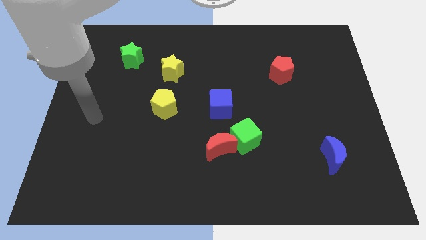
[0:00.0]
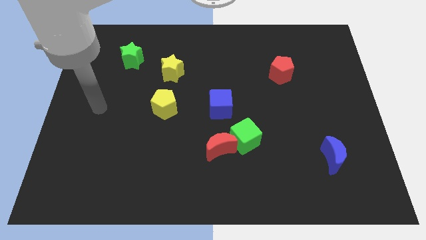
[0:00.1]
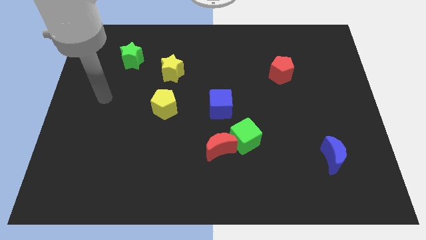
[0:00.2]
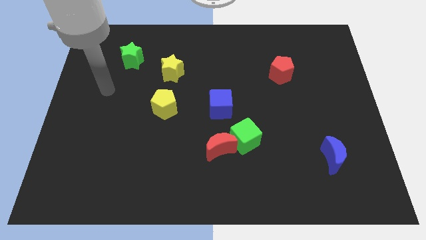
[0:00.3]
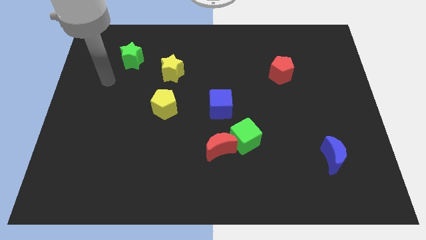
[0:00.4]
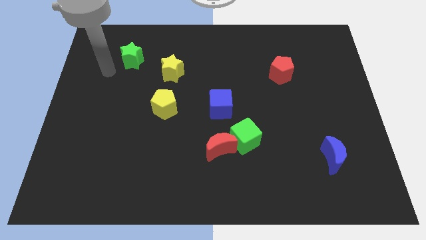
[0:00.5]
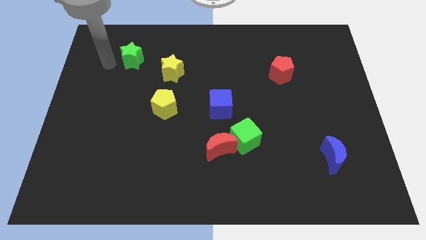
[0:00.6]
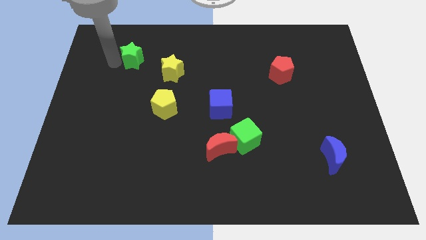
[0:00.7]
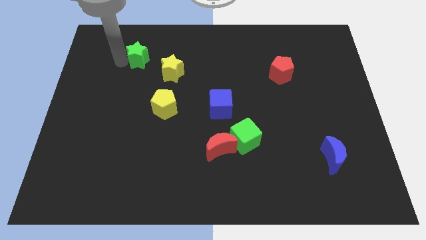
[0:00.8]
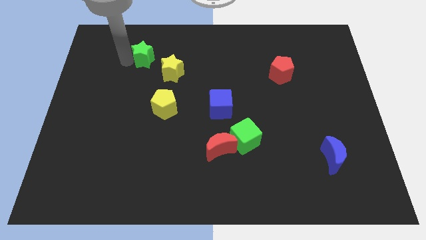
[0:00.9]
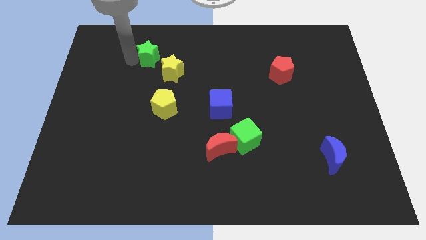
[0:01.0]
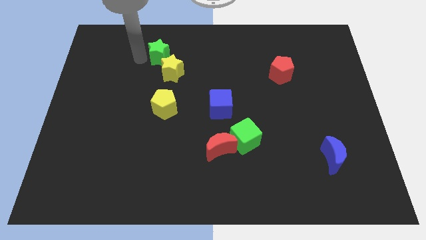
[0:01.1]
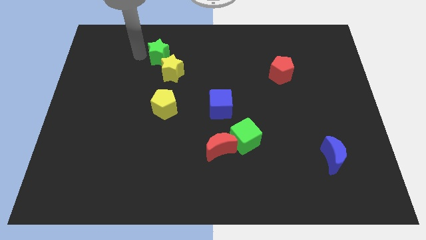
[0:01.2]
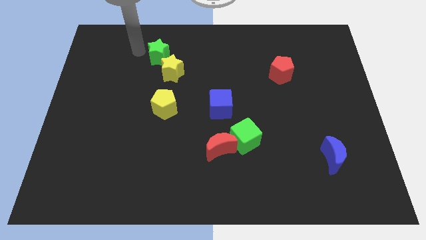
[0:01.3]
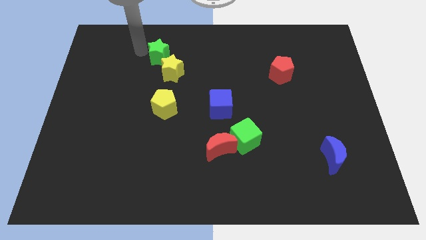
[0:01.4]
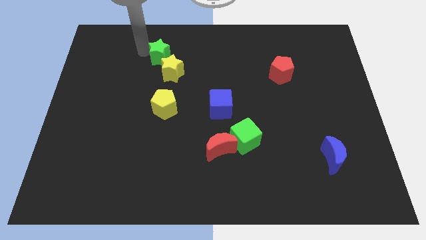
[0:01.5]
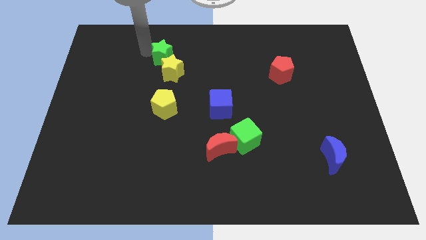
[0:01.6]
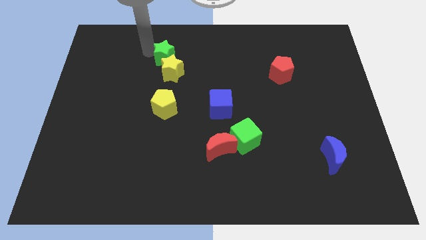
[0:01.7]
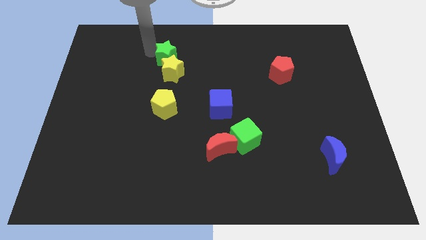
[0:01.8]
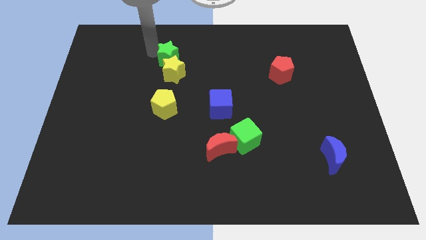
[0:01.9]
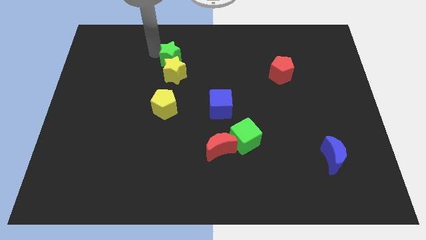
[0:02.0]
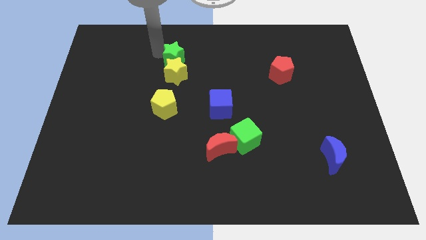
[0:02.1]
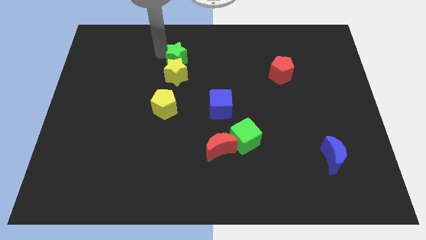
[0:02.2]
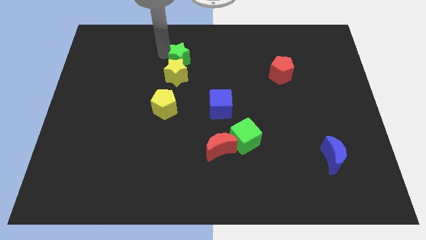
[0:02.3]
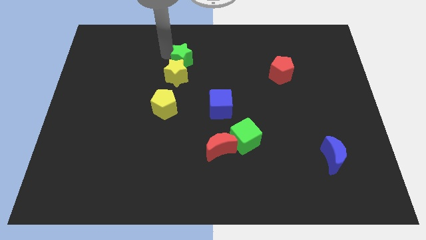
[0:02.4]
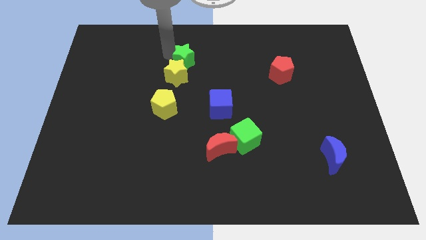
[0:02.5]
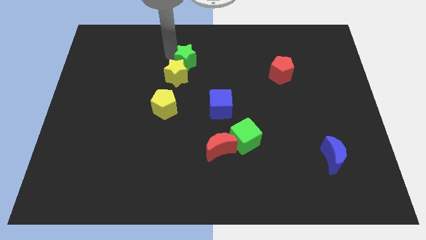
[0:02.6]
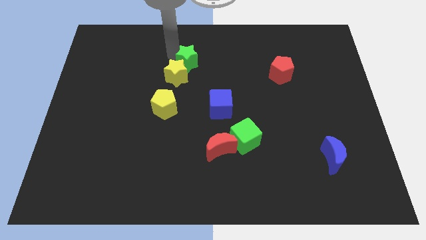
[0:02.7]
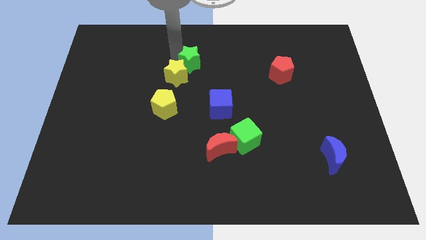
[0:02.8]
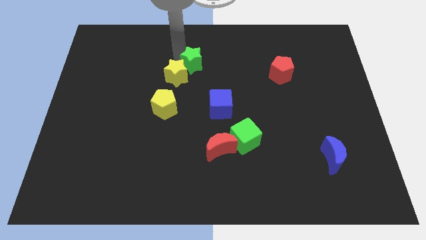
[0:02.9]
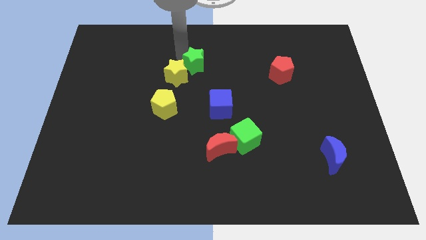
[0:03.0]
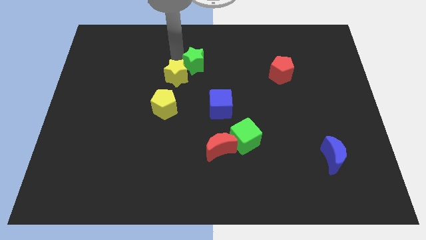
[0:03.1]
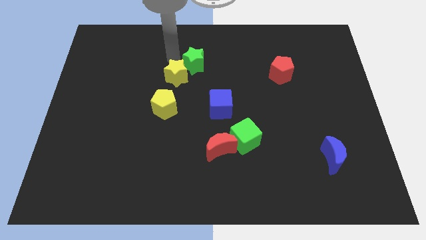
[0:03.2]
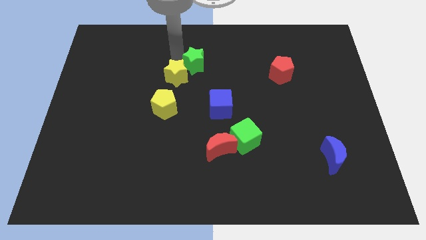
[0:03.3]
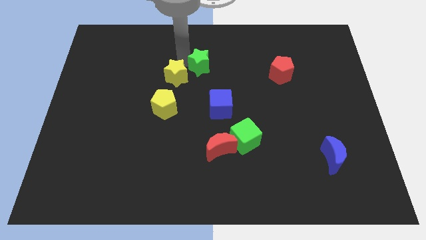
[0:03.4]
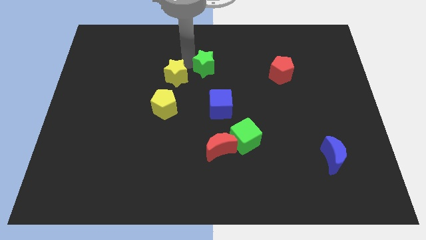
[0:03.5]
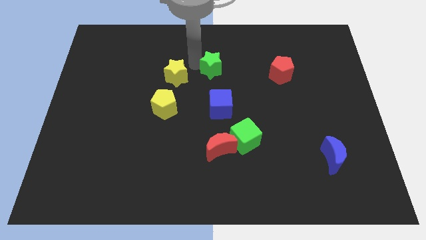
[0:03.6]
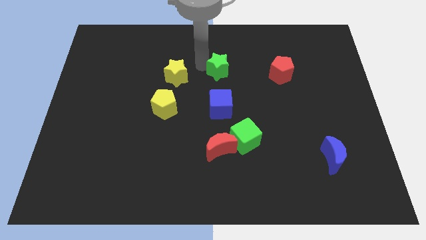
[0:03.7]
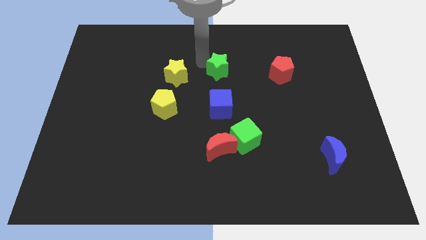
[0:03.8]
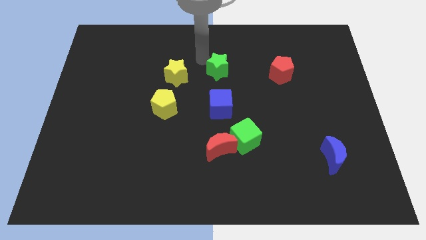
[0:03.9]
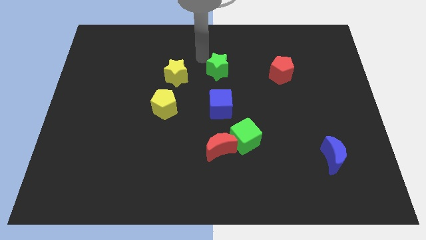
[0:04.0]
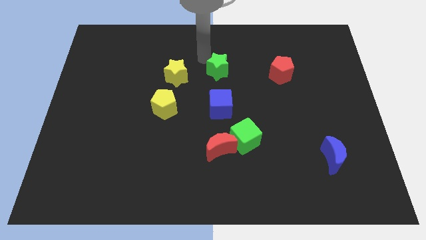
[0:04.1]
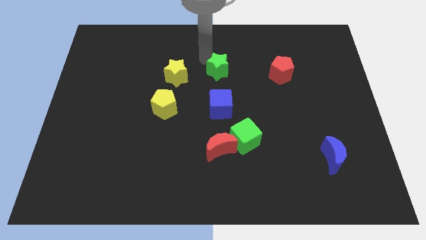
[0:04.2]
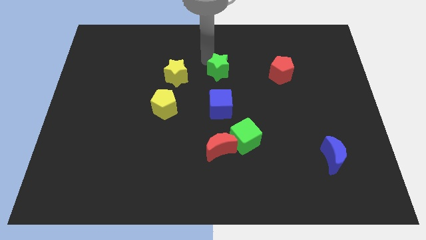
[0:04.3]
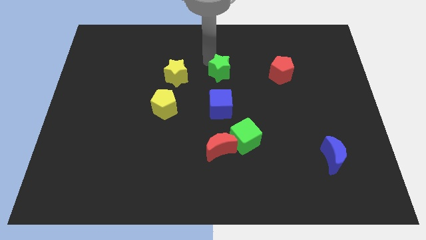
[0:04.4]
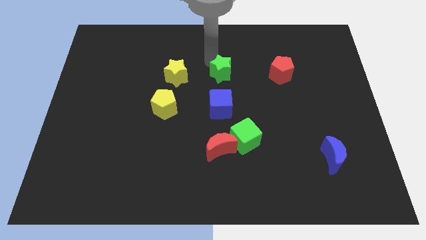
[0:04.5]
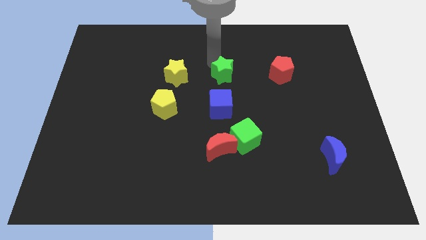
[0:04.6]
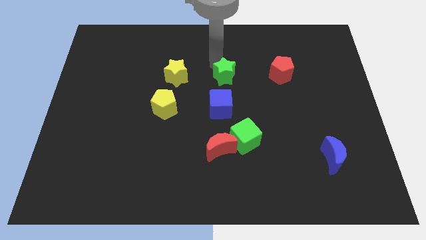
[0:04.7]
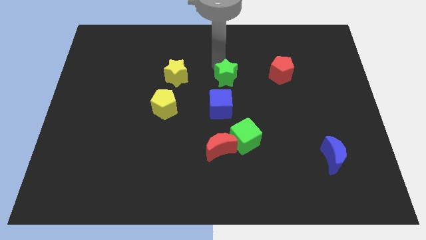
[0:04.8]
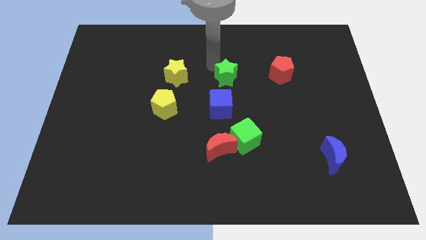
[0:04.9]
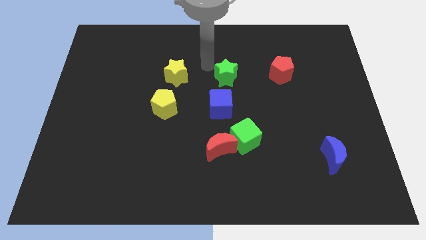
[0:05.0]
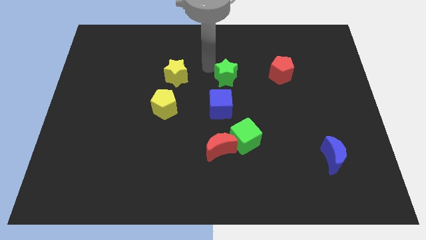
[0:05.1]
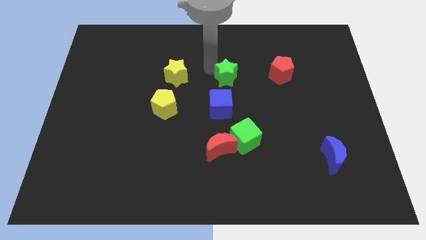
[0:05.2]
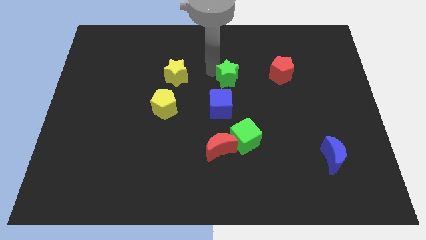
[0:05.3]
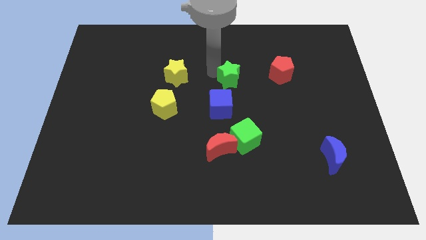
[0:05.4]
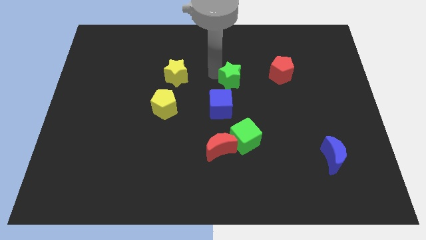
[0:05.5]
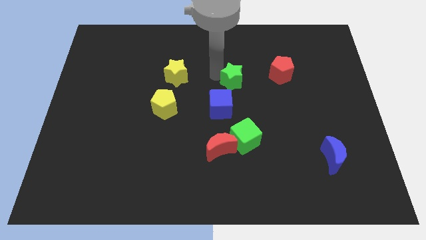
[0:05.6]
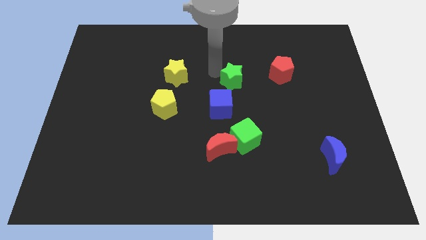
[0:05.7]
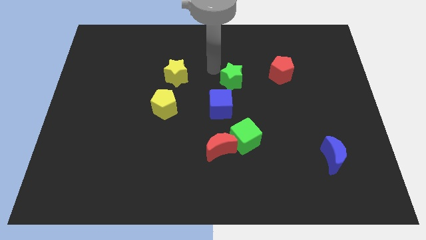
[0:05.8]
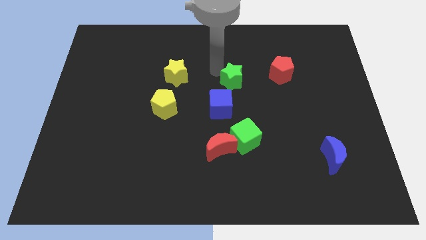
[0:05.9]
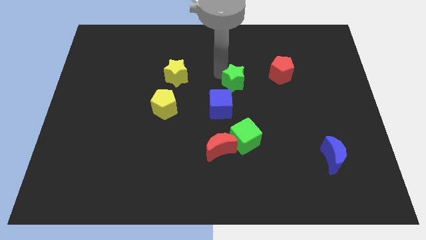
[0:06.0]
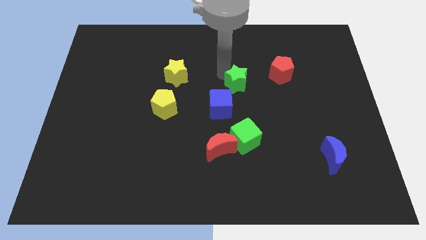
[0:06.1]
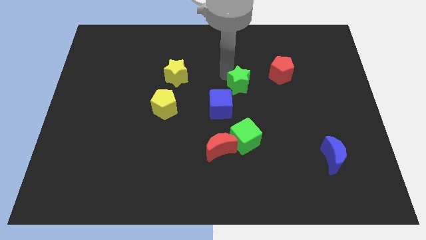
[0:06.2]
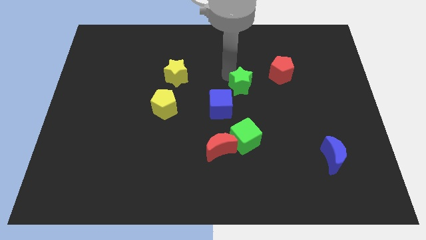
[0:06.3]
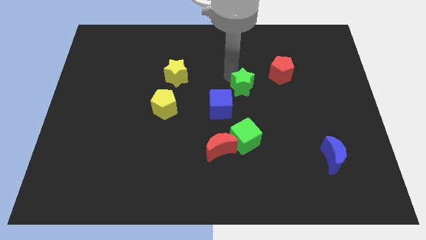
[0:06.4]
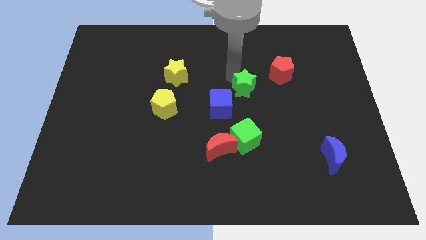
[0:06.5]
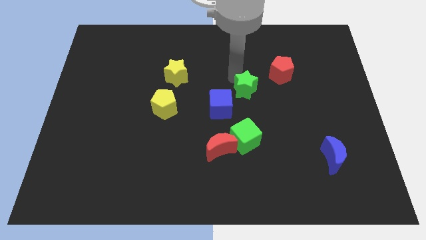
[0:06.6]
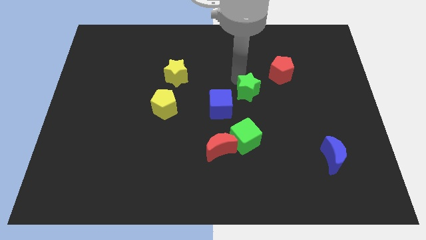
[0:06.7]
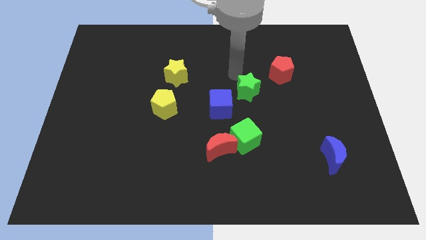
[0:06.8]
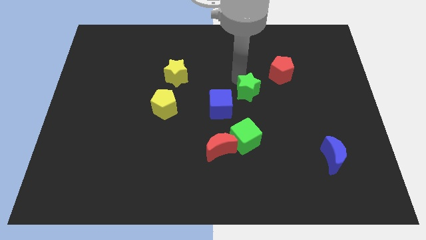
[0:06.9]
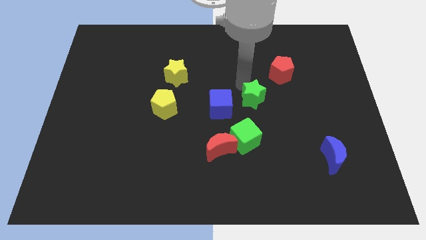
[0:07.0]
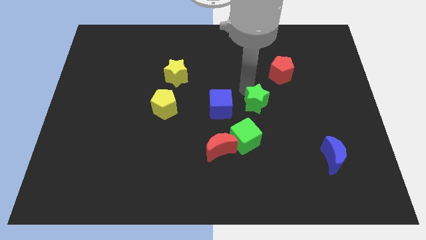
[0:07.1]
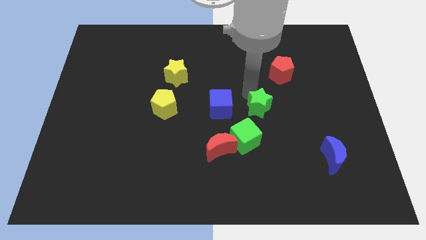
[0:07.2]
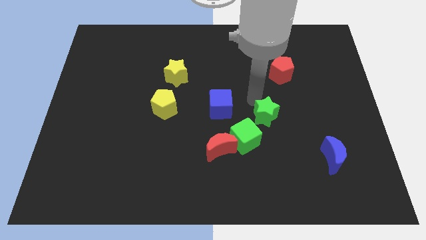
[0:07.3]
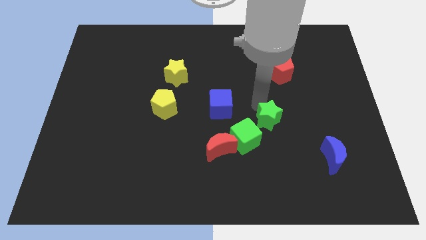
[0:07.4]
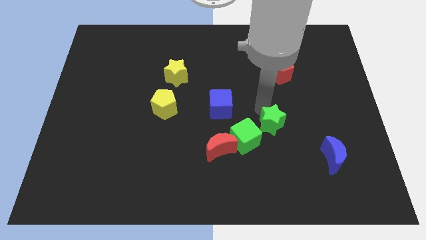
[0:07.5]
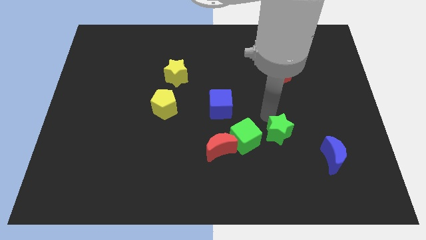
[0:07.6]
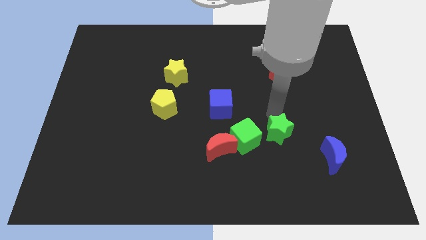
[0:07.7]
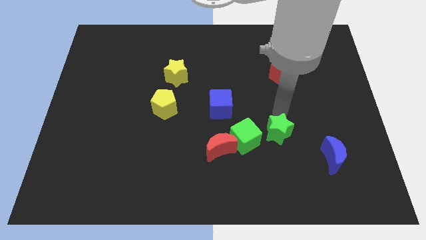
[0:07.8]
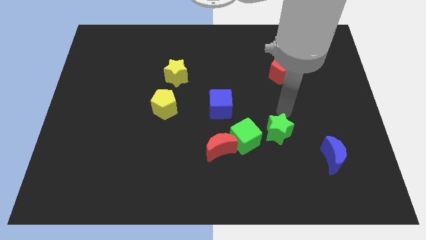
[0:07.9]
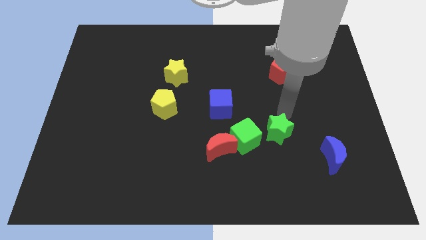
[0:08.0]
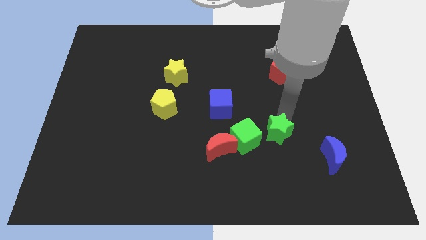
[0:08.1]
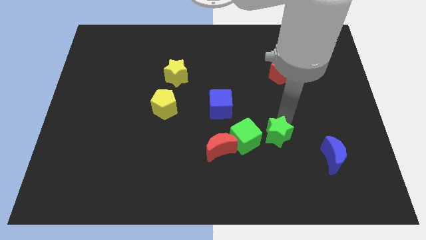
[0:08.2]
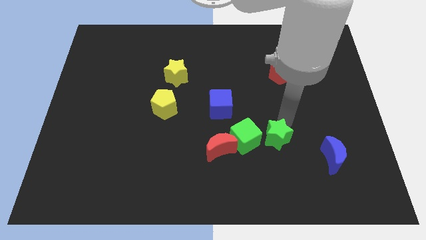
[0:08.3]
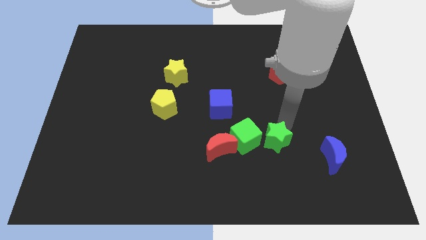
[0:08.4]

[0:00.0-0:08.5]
put the green star to the bottom right side of the green cube
